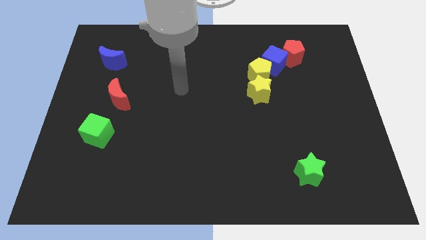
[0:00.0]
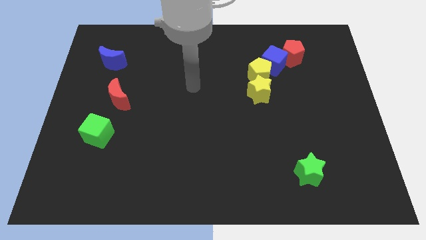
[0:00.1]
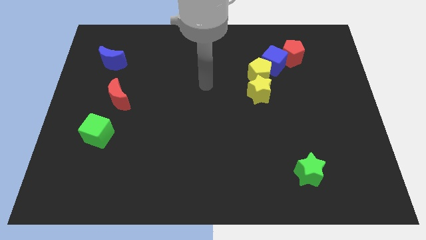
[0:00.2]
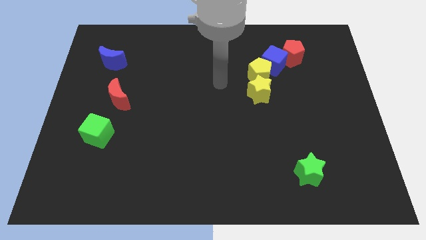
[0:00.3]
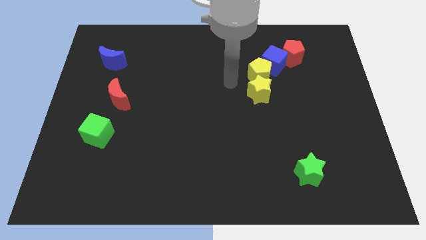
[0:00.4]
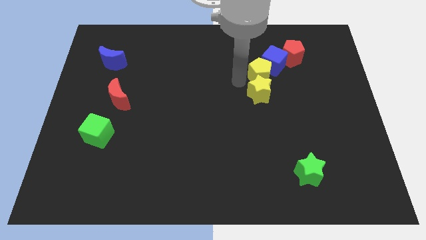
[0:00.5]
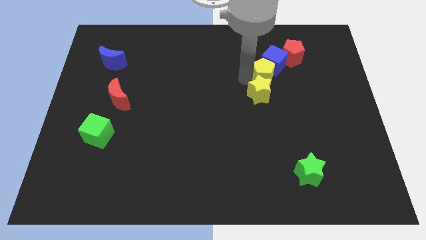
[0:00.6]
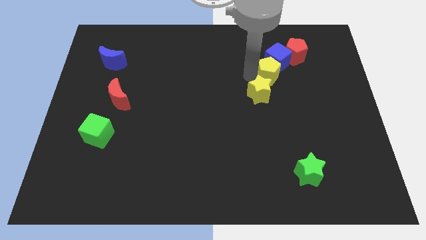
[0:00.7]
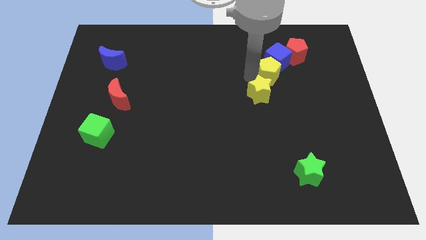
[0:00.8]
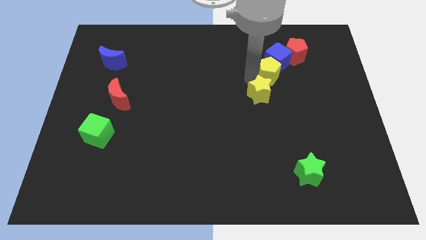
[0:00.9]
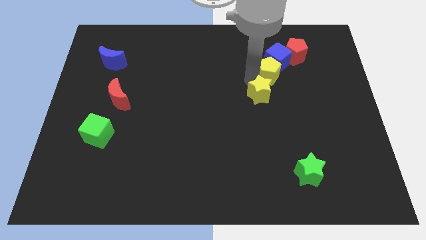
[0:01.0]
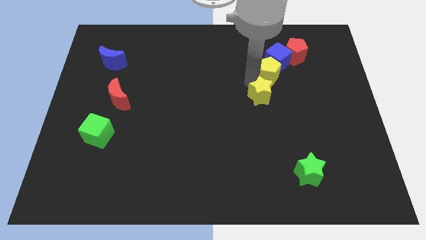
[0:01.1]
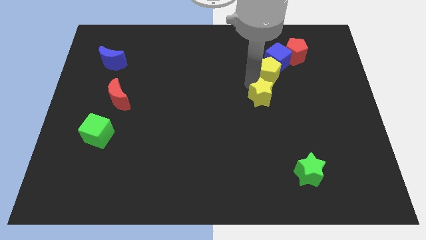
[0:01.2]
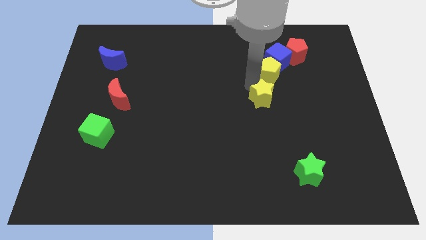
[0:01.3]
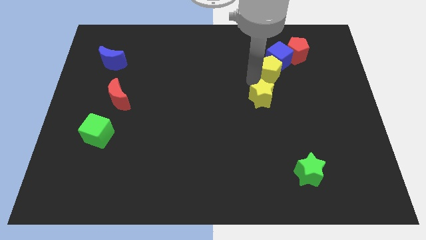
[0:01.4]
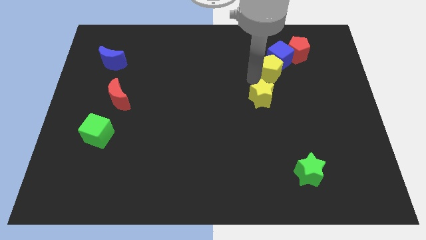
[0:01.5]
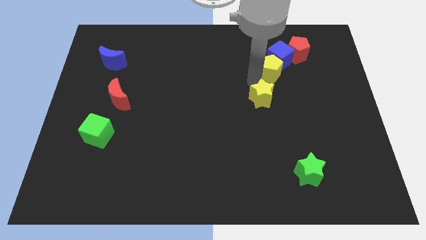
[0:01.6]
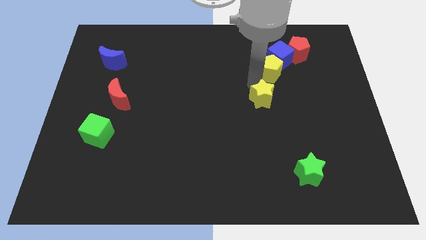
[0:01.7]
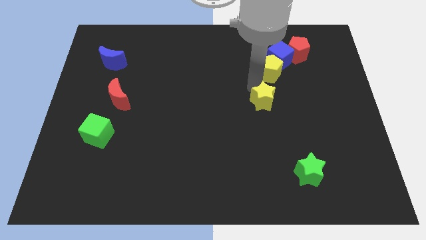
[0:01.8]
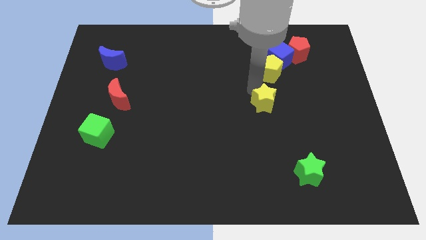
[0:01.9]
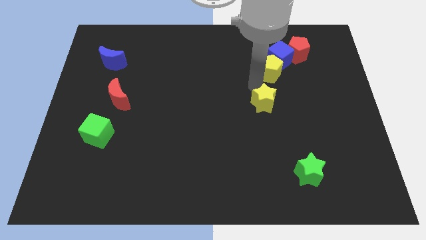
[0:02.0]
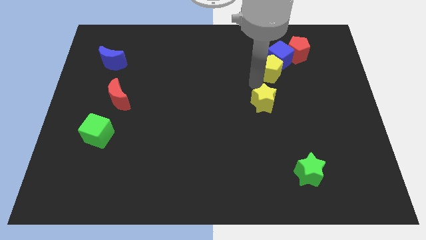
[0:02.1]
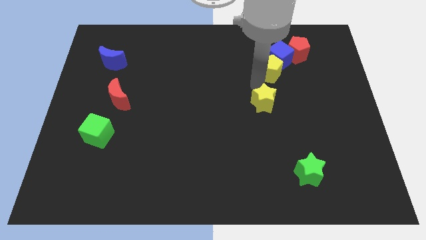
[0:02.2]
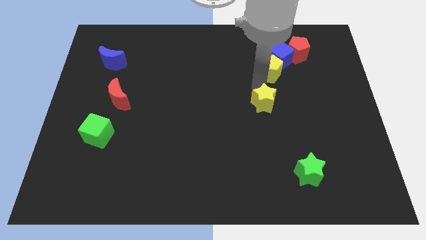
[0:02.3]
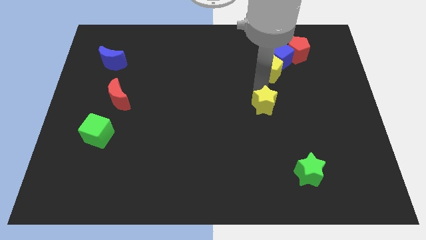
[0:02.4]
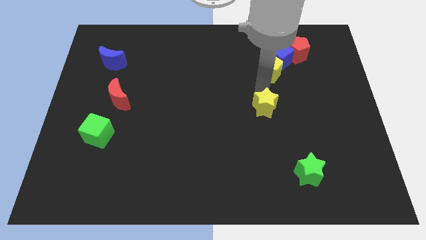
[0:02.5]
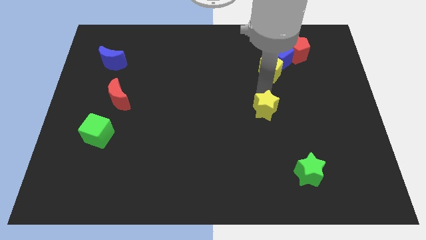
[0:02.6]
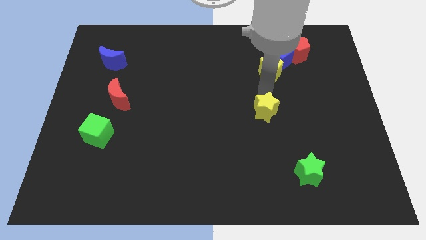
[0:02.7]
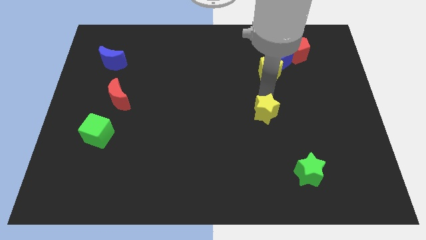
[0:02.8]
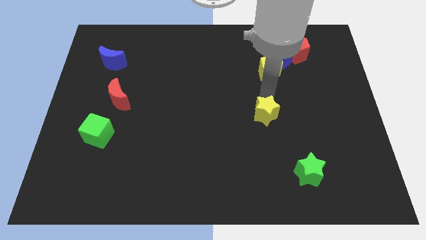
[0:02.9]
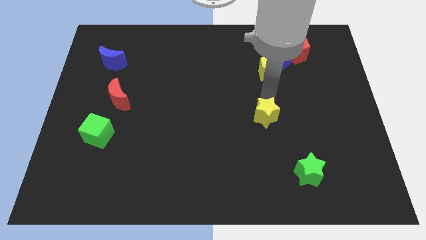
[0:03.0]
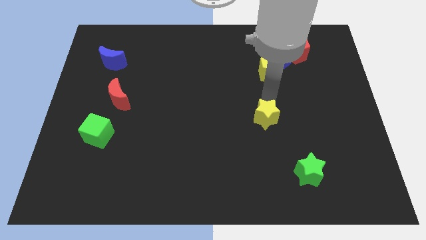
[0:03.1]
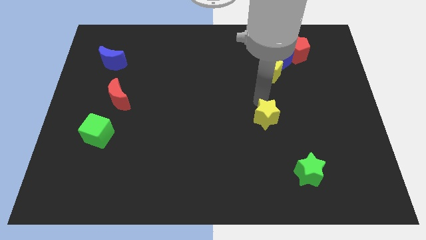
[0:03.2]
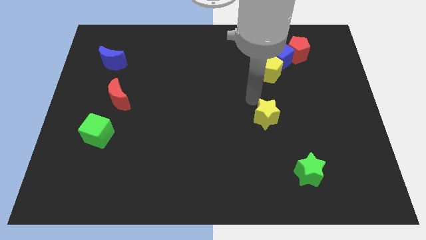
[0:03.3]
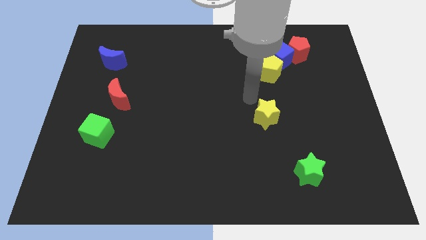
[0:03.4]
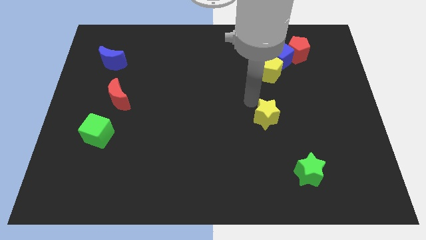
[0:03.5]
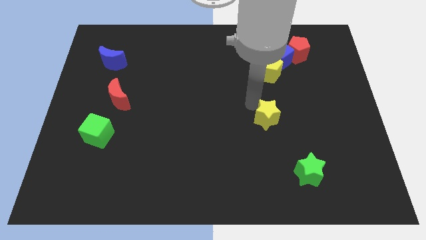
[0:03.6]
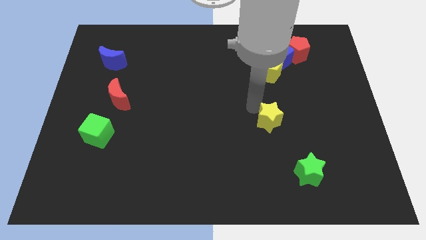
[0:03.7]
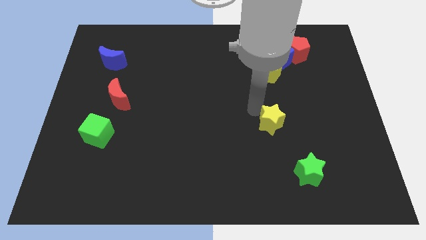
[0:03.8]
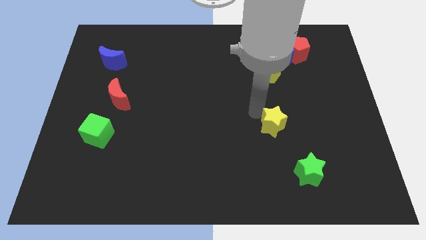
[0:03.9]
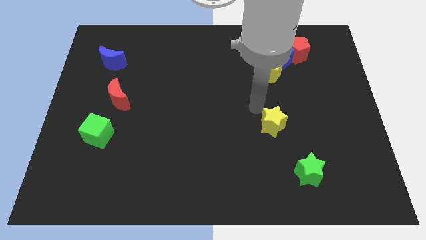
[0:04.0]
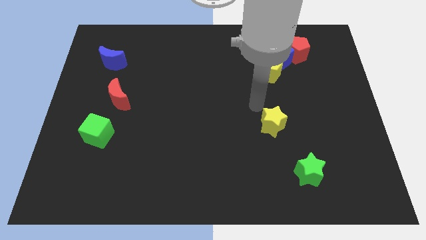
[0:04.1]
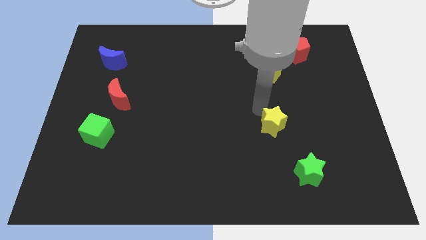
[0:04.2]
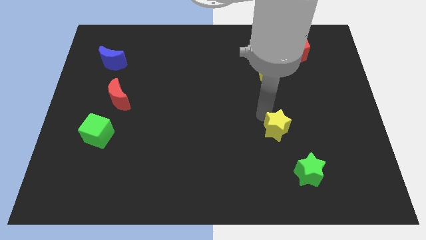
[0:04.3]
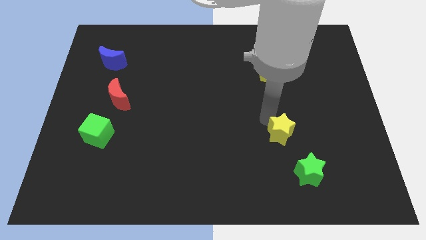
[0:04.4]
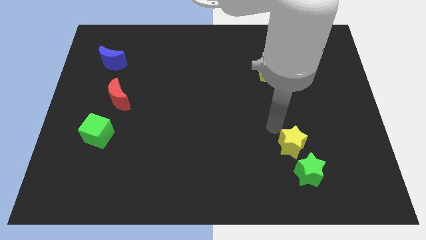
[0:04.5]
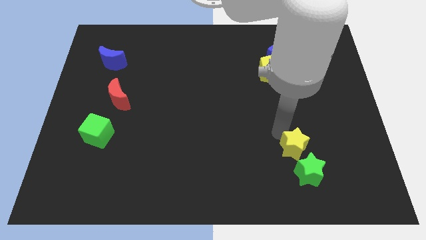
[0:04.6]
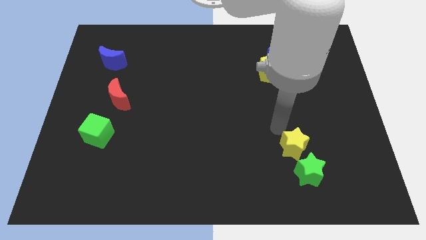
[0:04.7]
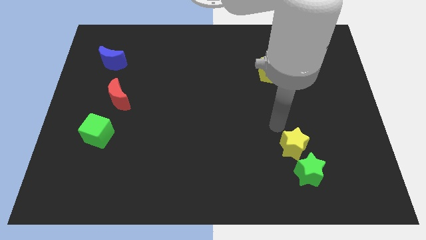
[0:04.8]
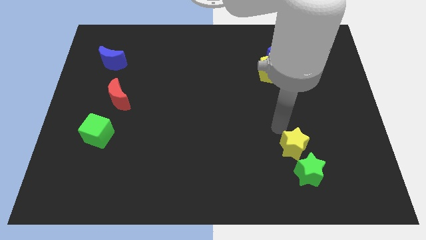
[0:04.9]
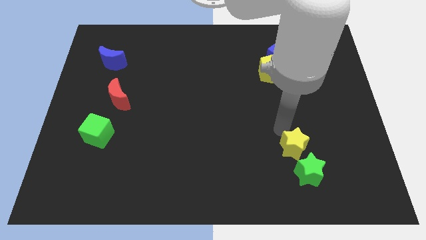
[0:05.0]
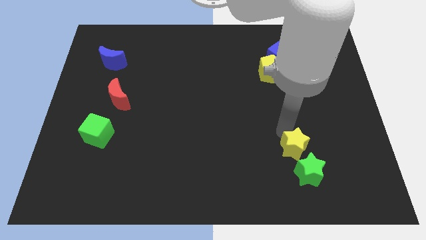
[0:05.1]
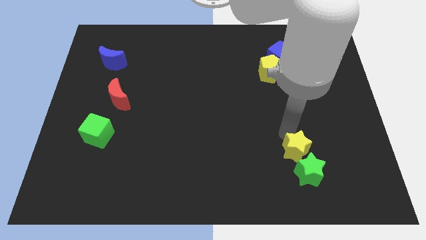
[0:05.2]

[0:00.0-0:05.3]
put the yellow star next to the green star

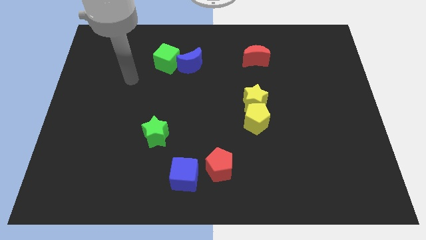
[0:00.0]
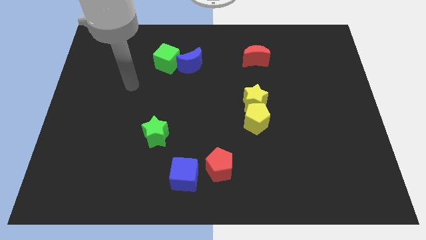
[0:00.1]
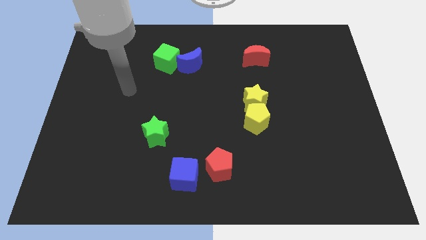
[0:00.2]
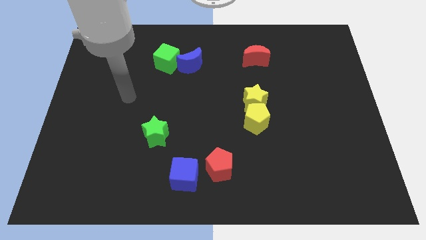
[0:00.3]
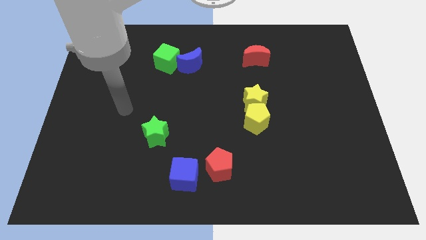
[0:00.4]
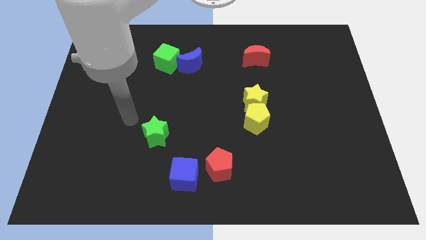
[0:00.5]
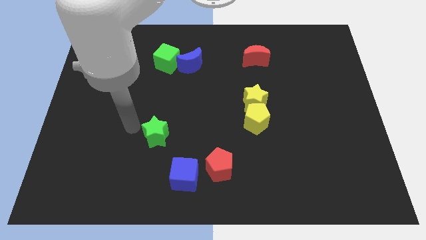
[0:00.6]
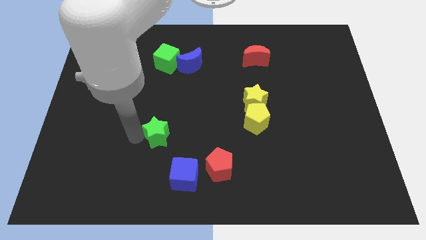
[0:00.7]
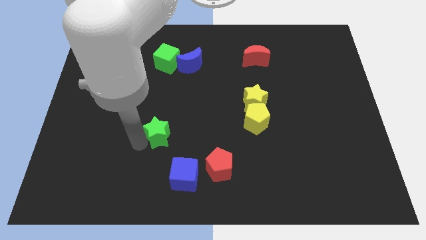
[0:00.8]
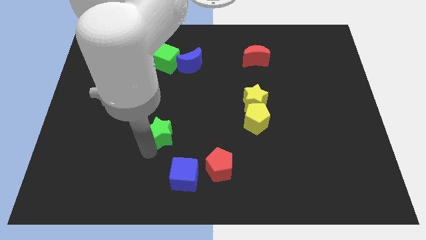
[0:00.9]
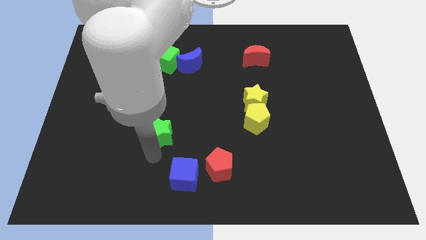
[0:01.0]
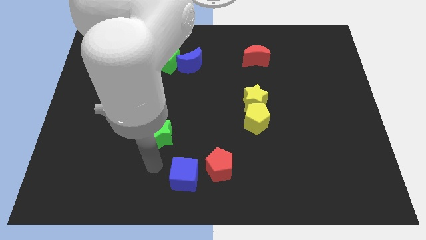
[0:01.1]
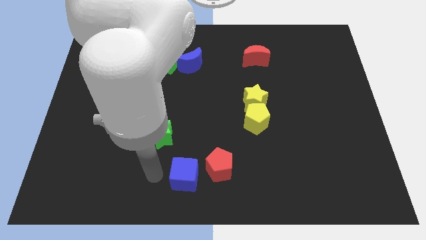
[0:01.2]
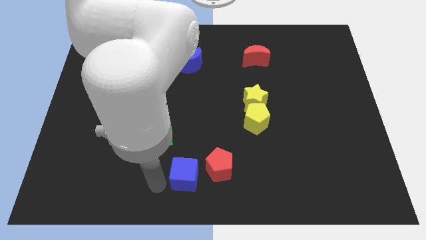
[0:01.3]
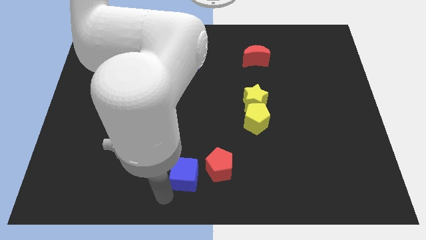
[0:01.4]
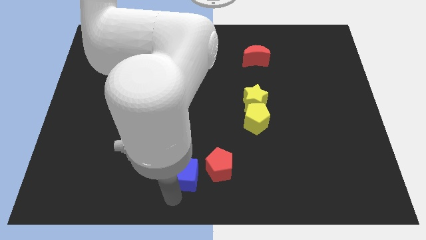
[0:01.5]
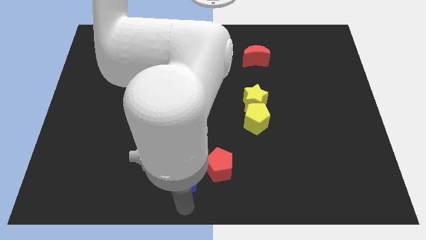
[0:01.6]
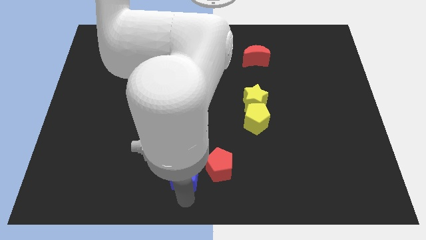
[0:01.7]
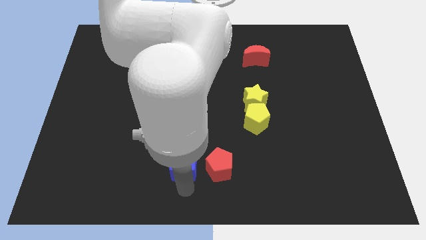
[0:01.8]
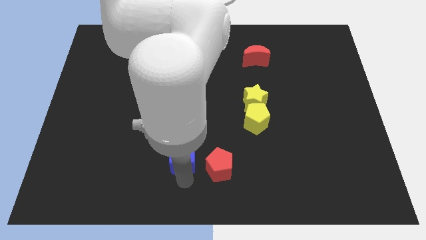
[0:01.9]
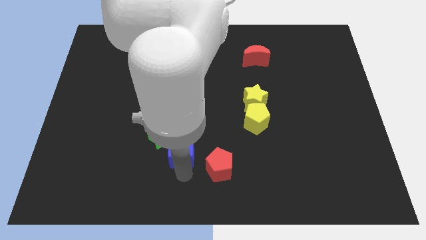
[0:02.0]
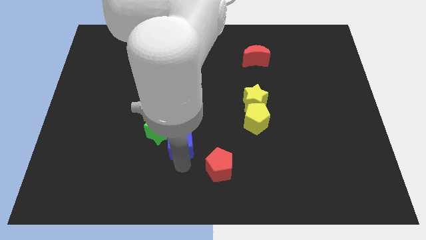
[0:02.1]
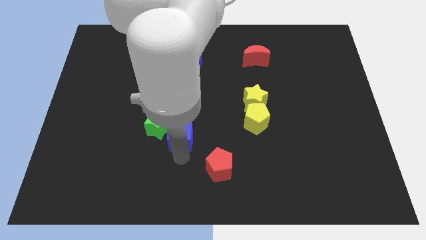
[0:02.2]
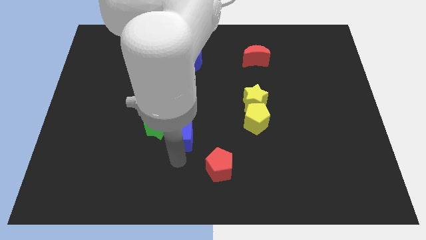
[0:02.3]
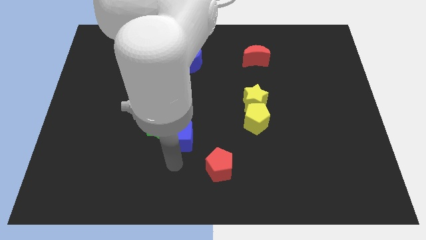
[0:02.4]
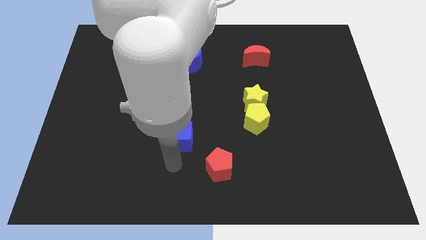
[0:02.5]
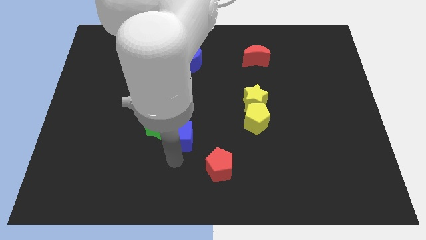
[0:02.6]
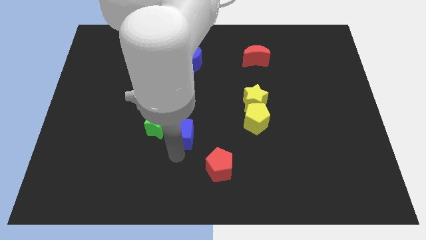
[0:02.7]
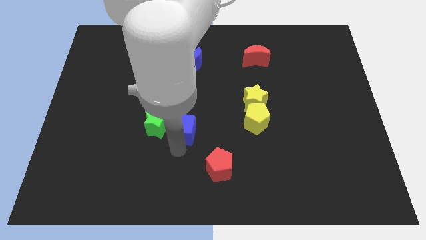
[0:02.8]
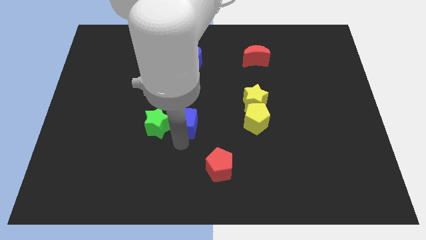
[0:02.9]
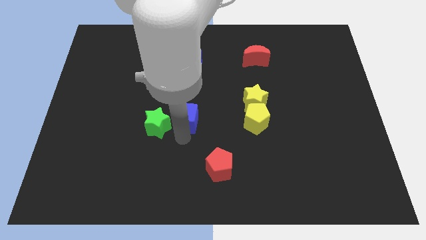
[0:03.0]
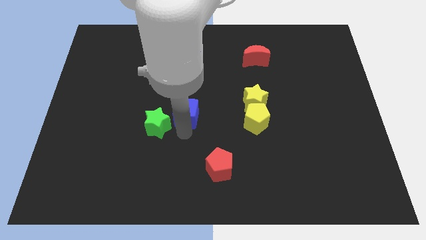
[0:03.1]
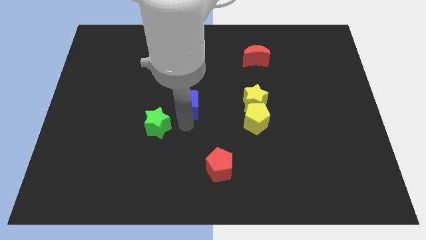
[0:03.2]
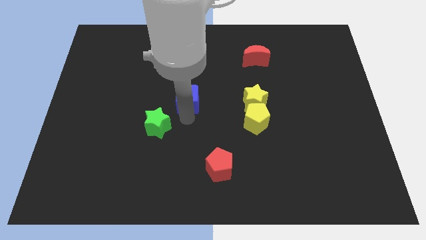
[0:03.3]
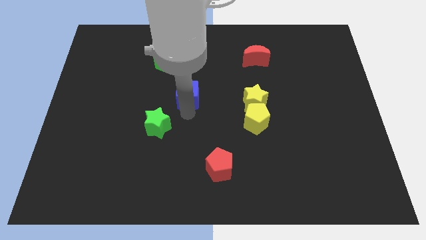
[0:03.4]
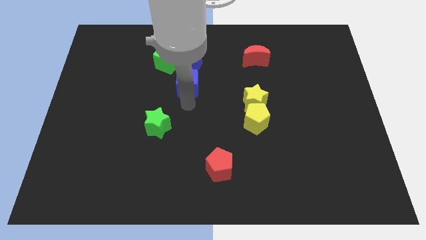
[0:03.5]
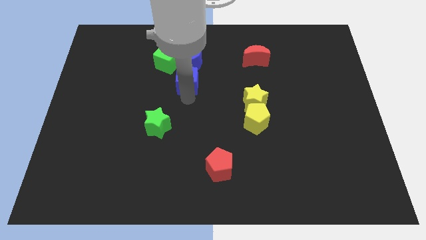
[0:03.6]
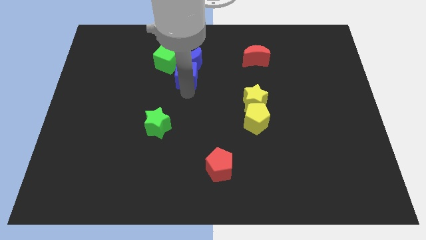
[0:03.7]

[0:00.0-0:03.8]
push the blue cube towards the blue moon
